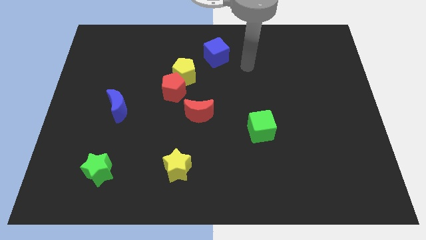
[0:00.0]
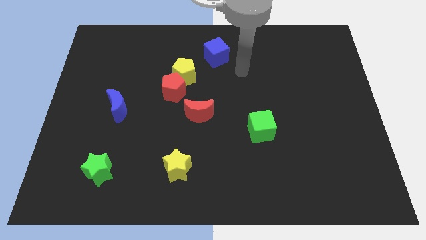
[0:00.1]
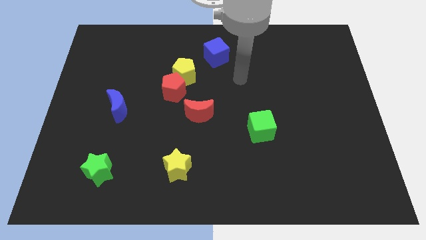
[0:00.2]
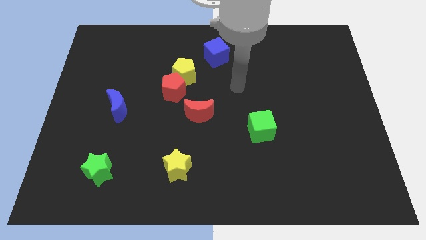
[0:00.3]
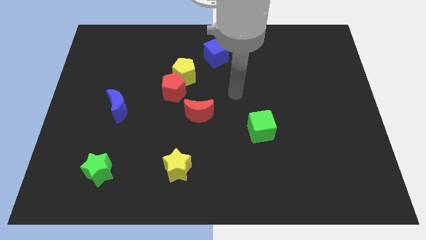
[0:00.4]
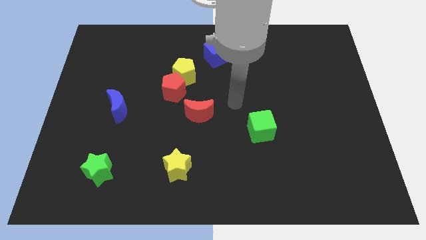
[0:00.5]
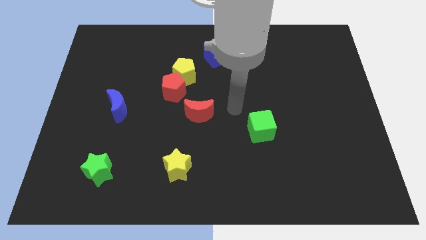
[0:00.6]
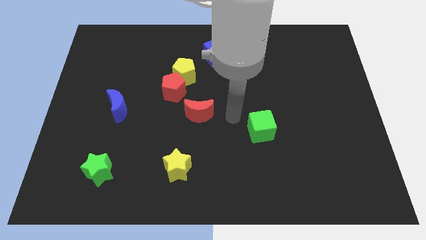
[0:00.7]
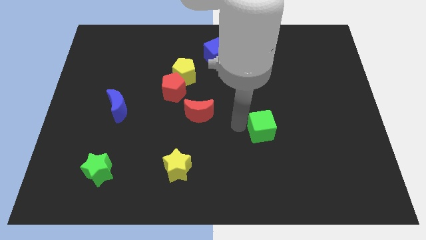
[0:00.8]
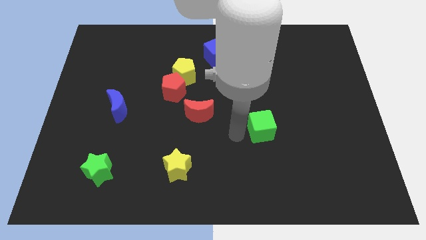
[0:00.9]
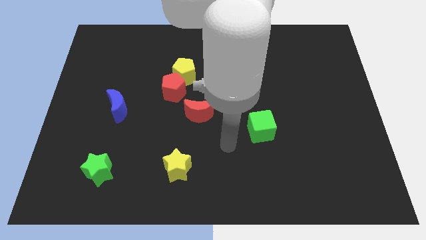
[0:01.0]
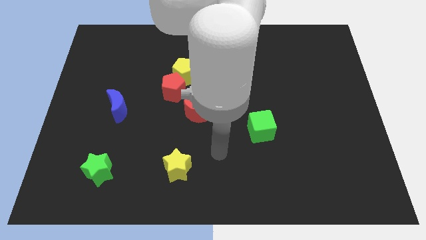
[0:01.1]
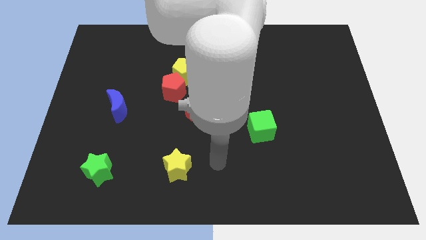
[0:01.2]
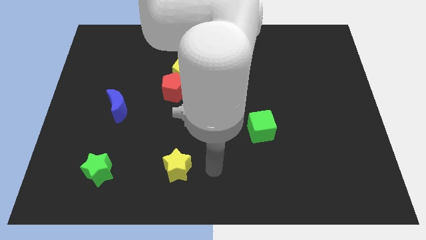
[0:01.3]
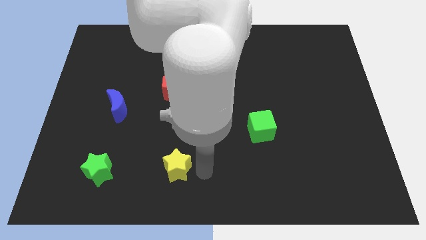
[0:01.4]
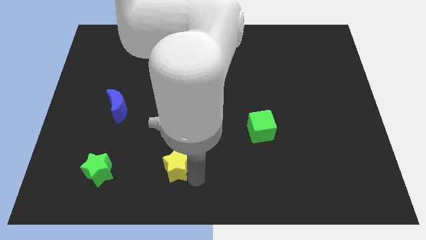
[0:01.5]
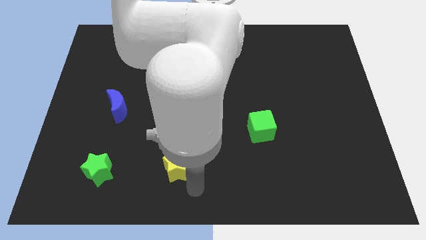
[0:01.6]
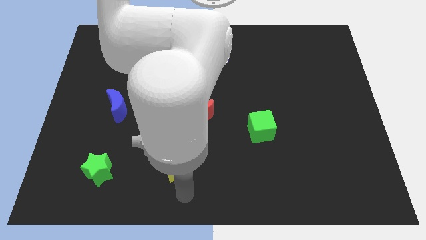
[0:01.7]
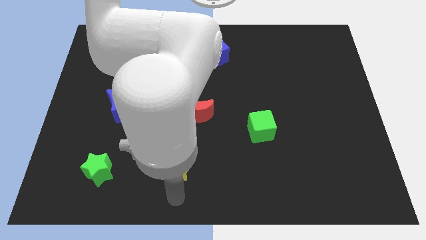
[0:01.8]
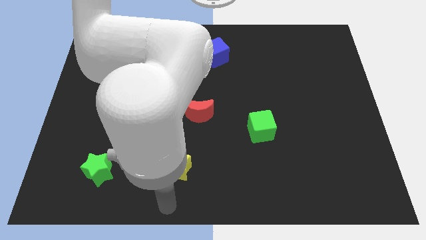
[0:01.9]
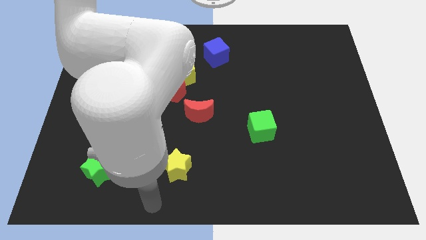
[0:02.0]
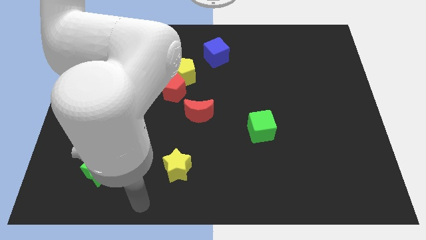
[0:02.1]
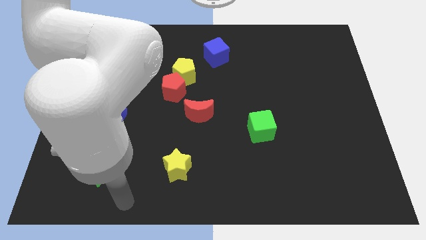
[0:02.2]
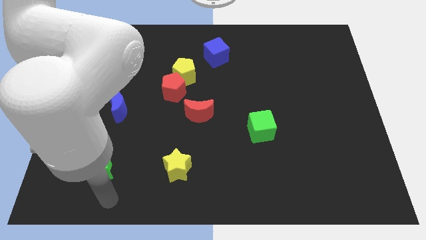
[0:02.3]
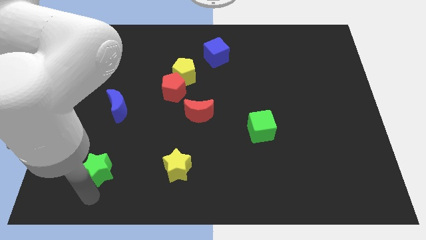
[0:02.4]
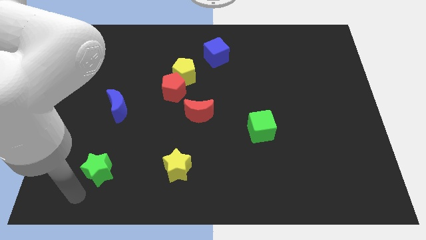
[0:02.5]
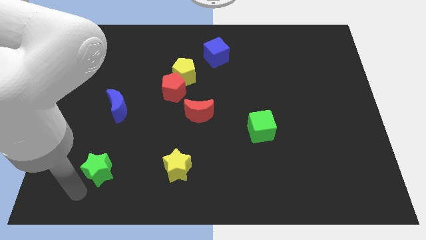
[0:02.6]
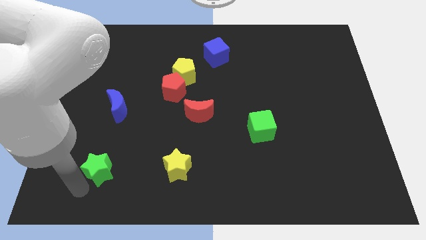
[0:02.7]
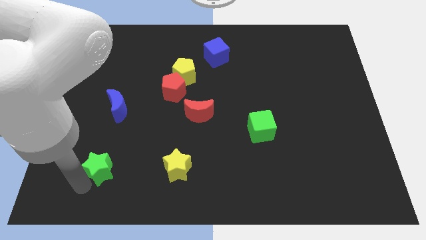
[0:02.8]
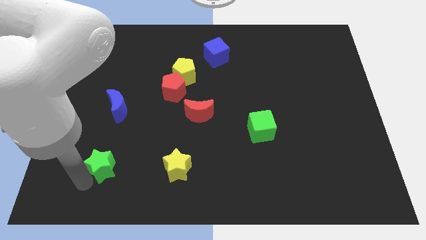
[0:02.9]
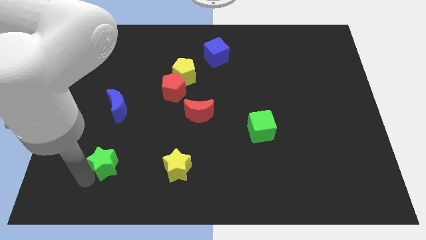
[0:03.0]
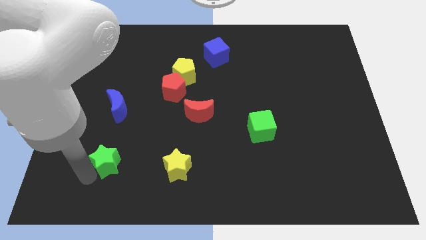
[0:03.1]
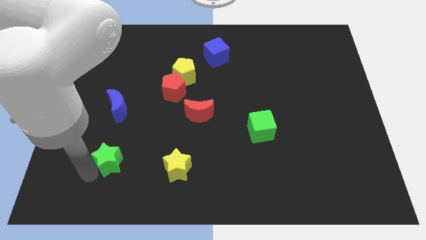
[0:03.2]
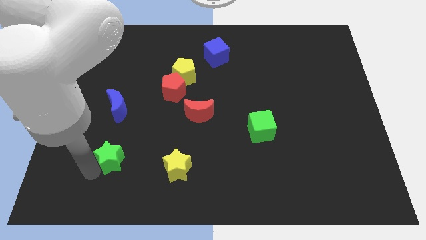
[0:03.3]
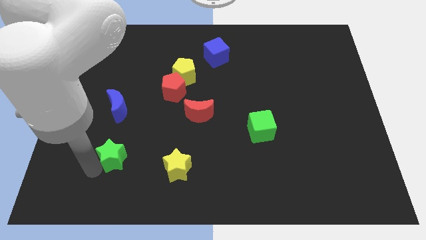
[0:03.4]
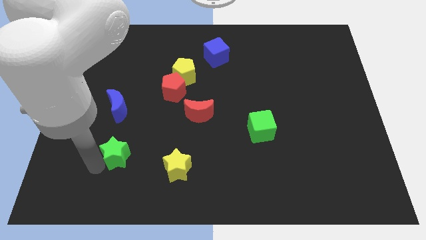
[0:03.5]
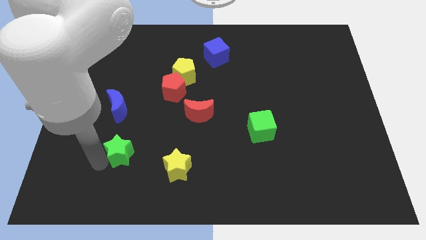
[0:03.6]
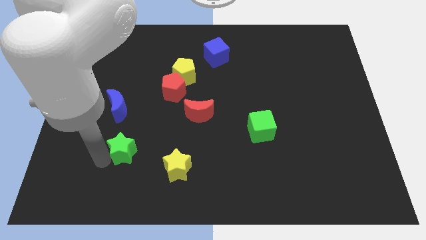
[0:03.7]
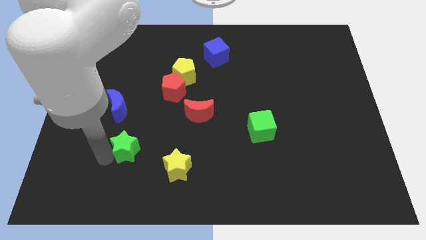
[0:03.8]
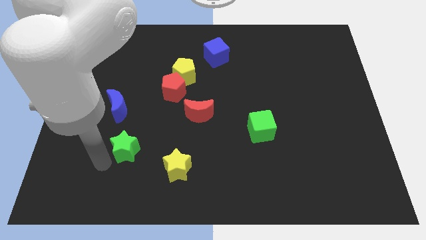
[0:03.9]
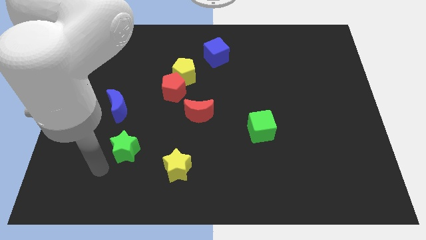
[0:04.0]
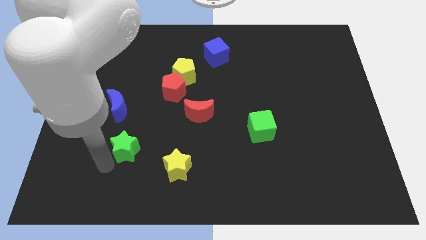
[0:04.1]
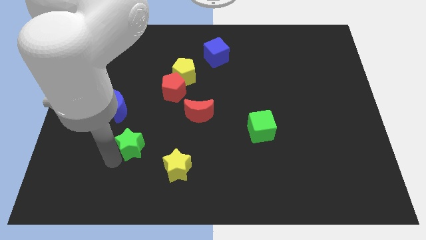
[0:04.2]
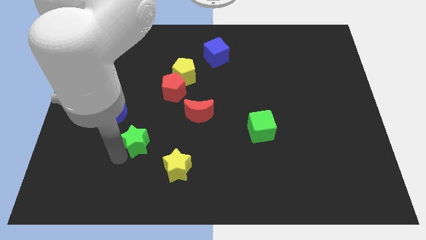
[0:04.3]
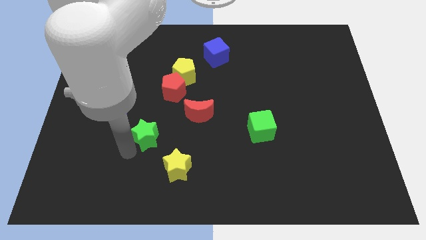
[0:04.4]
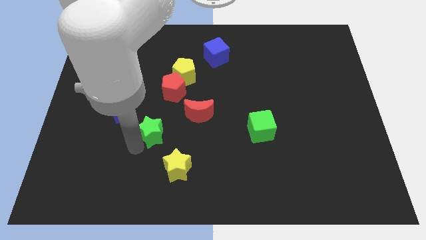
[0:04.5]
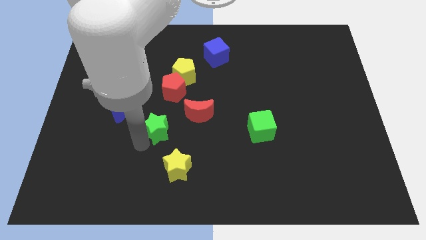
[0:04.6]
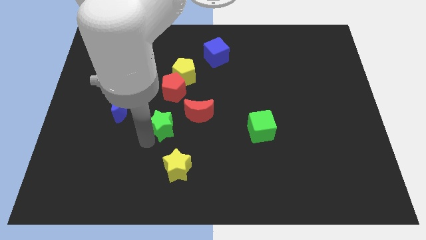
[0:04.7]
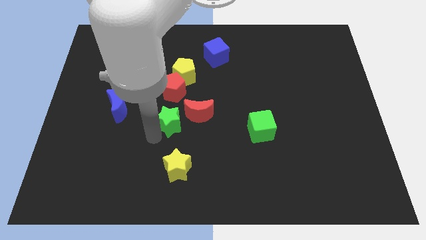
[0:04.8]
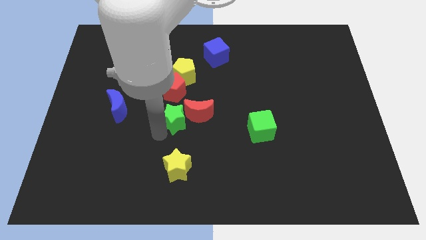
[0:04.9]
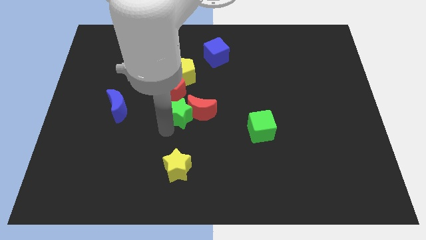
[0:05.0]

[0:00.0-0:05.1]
move the green star up and right diagonally

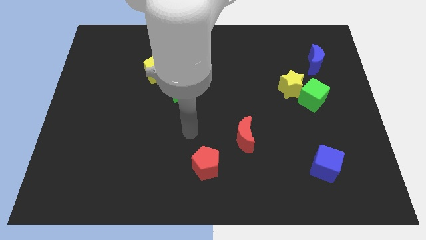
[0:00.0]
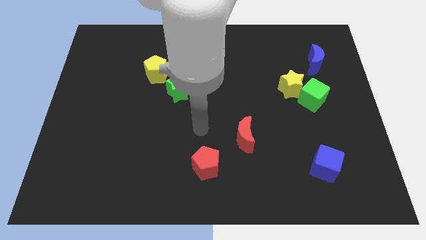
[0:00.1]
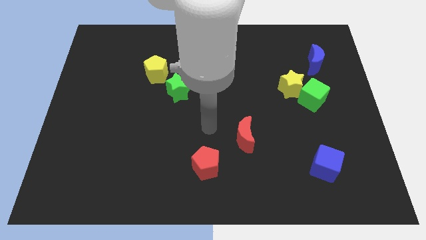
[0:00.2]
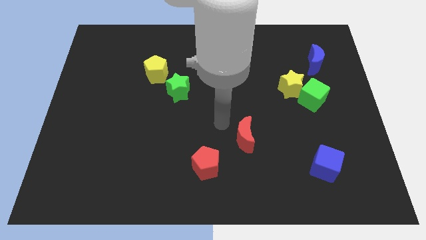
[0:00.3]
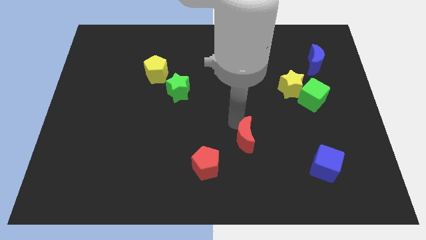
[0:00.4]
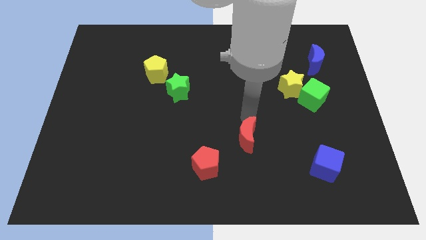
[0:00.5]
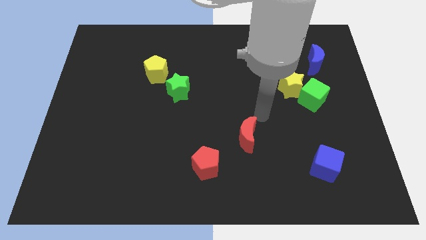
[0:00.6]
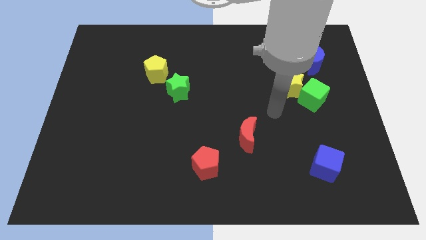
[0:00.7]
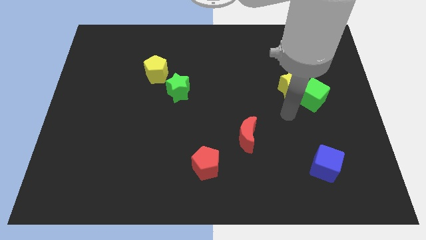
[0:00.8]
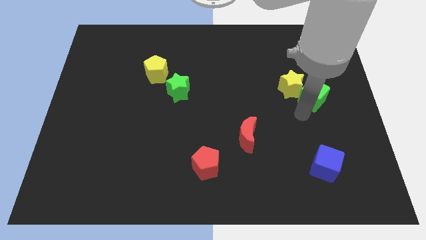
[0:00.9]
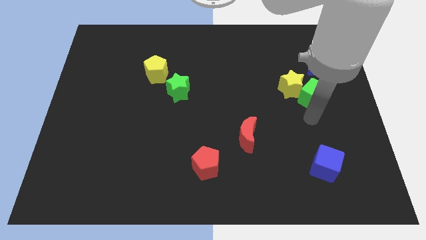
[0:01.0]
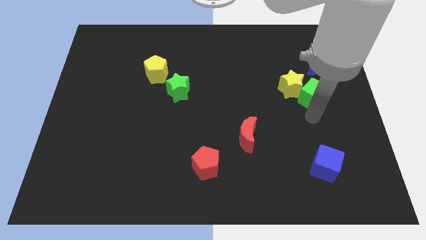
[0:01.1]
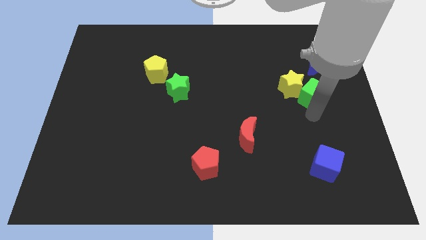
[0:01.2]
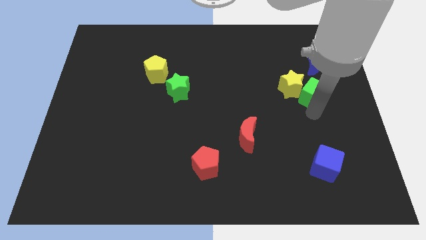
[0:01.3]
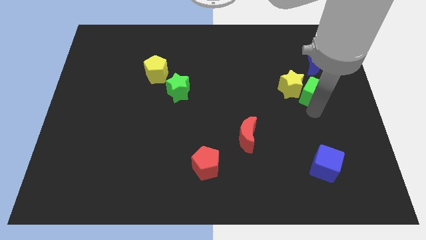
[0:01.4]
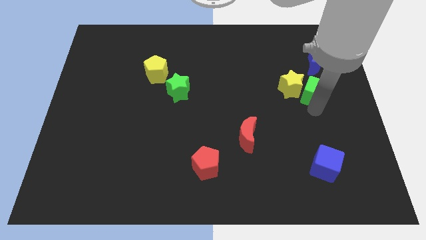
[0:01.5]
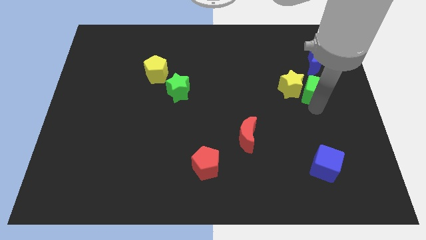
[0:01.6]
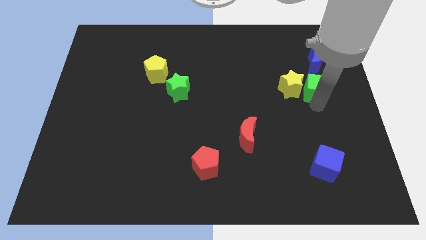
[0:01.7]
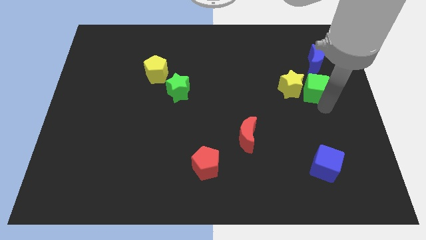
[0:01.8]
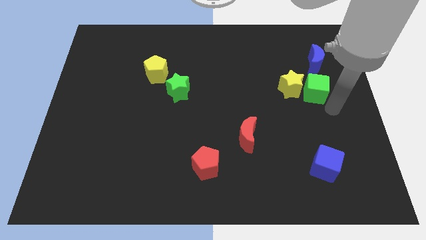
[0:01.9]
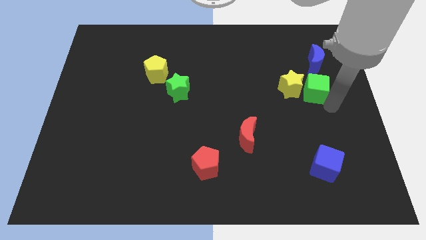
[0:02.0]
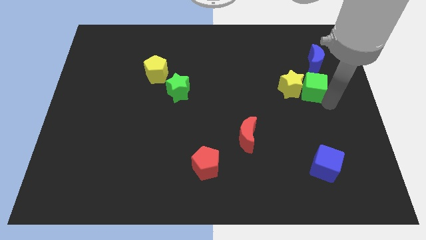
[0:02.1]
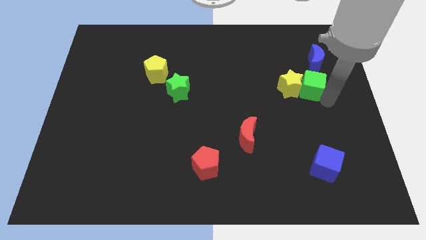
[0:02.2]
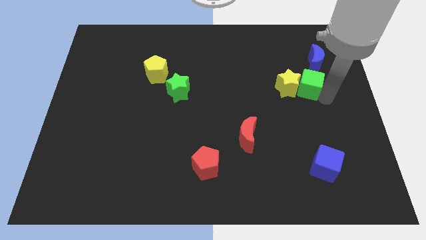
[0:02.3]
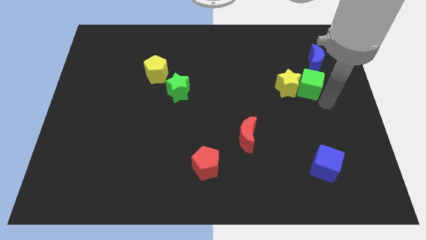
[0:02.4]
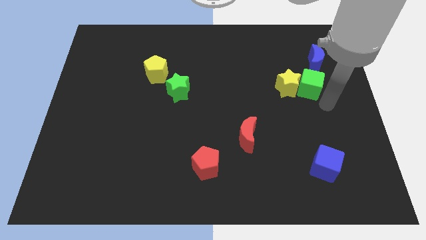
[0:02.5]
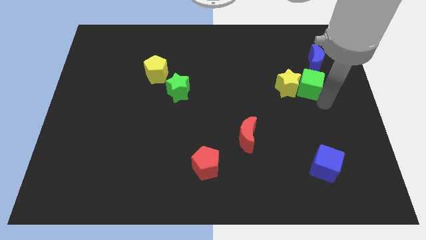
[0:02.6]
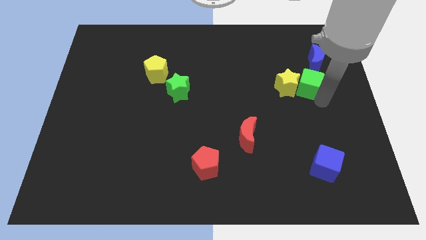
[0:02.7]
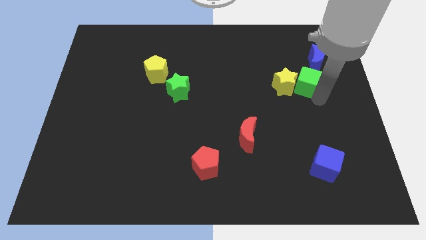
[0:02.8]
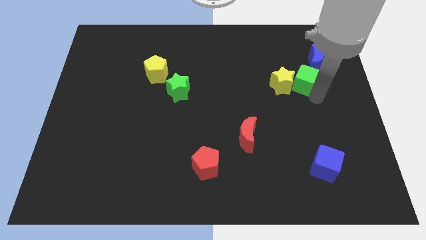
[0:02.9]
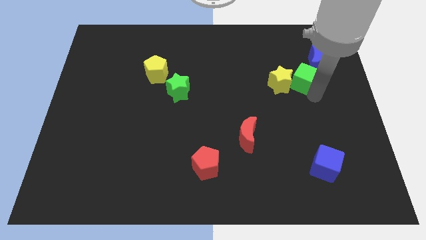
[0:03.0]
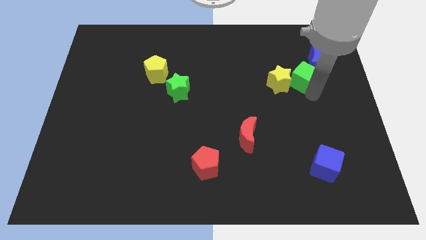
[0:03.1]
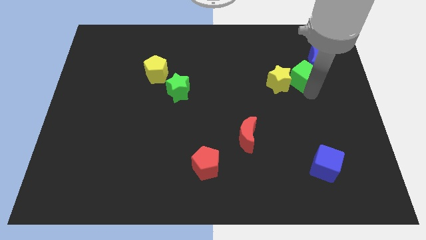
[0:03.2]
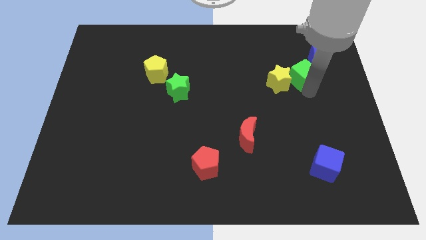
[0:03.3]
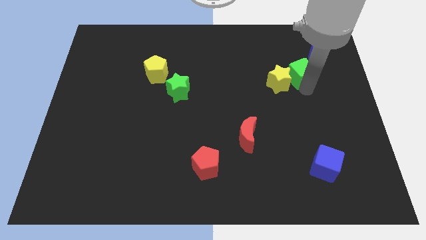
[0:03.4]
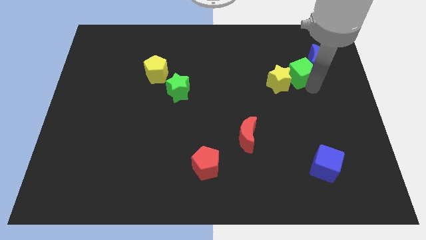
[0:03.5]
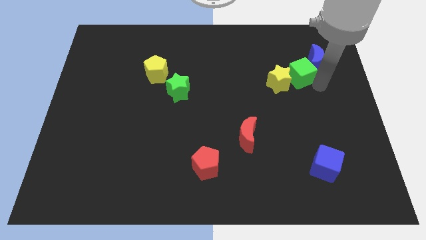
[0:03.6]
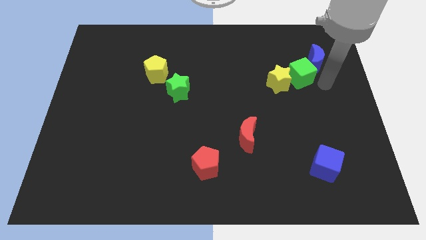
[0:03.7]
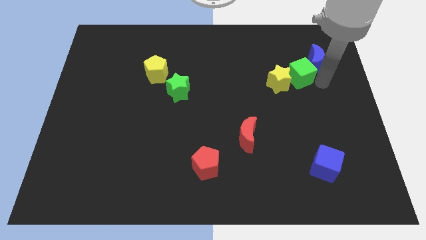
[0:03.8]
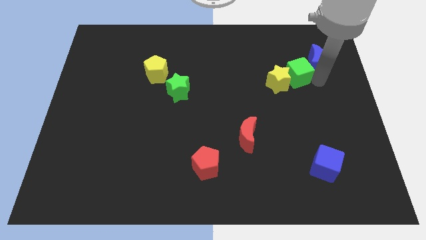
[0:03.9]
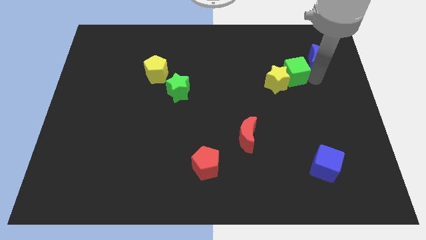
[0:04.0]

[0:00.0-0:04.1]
push the green cube diagonally upwards and to the left a little bit
